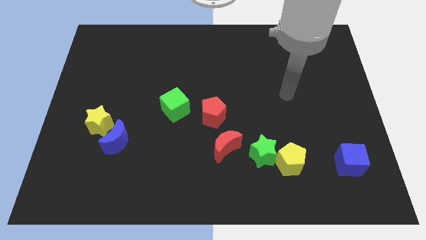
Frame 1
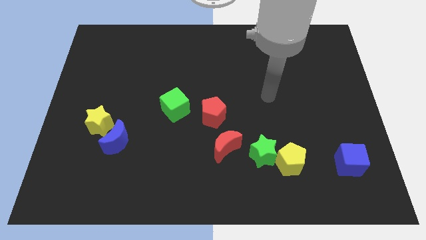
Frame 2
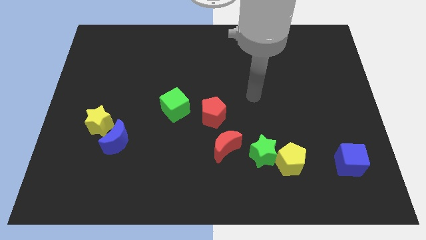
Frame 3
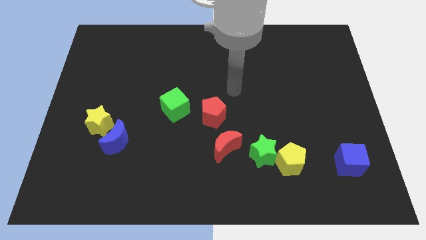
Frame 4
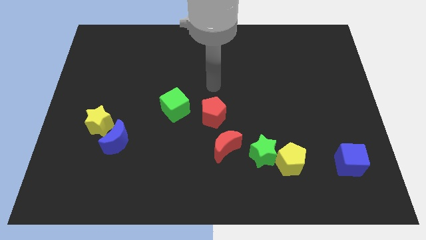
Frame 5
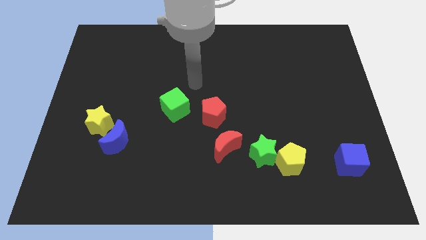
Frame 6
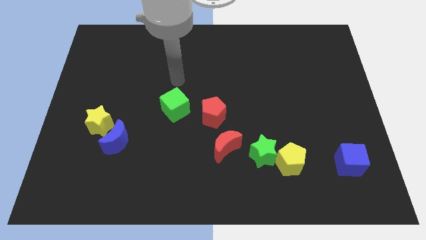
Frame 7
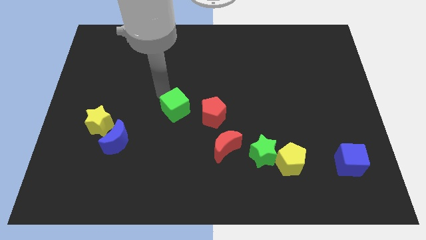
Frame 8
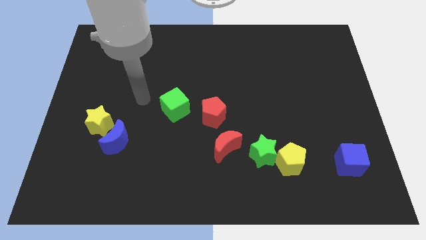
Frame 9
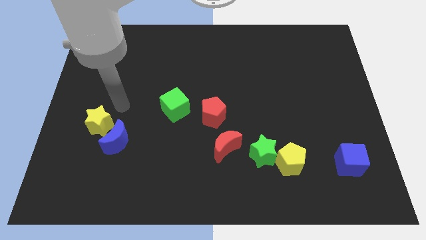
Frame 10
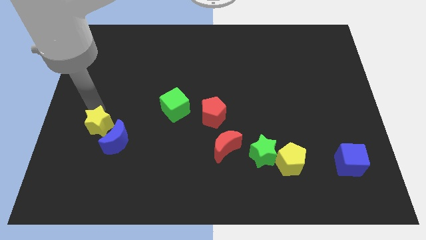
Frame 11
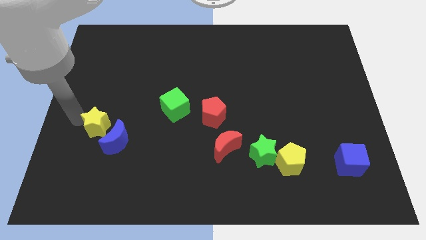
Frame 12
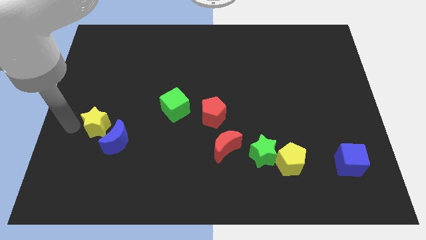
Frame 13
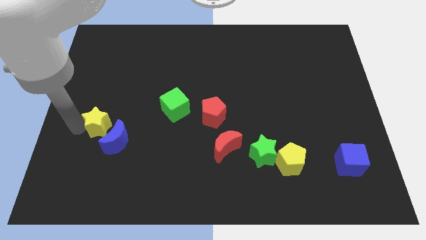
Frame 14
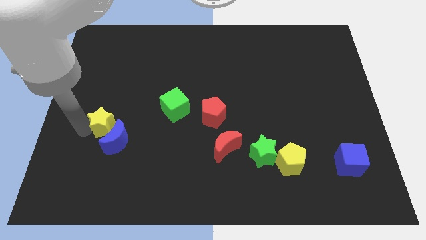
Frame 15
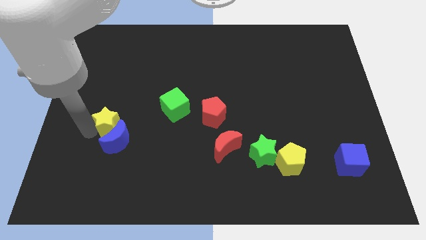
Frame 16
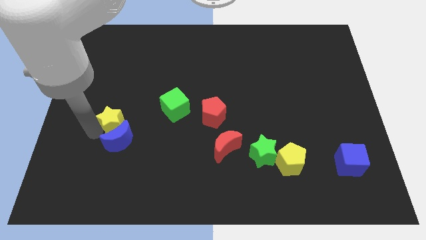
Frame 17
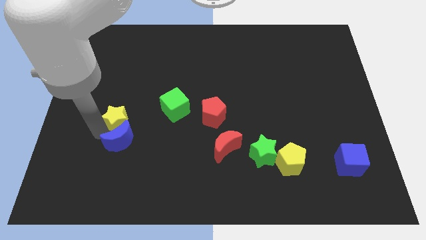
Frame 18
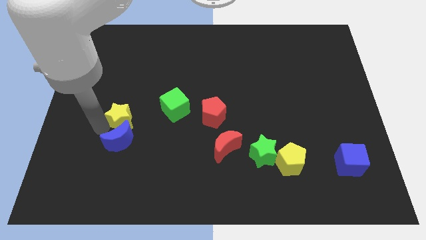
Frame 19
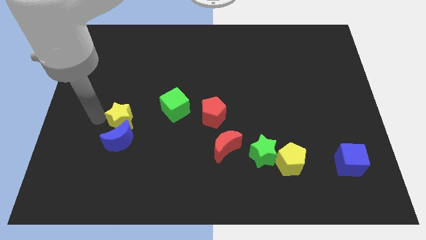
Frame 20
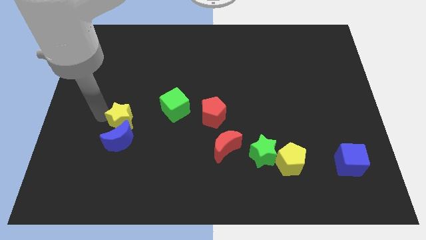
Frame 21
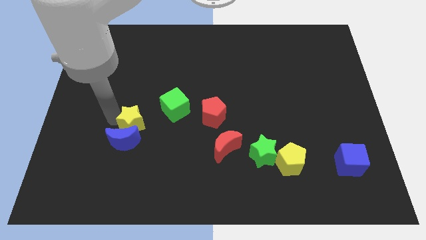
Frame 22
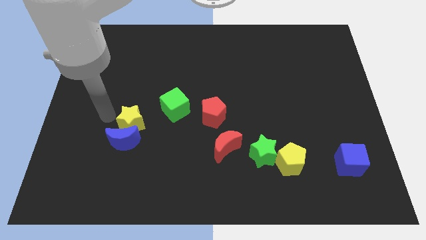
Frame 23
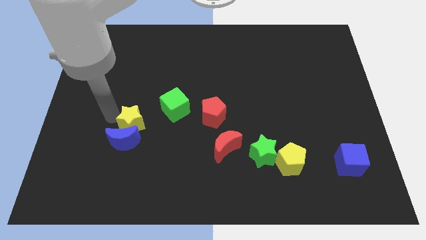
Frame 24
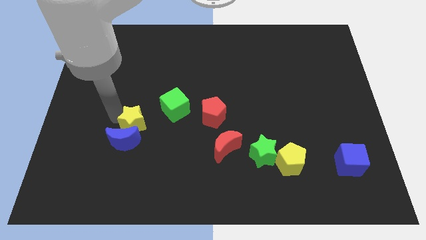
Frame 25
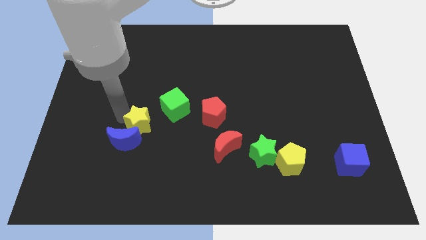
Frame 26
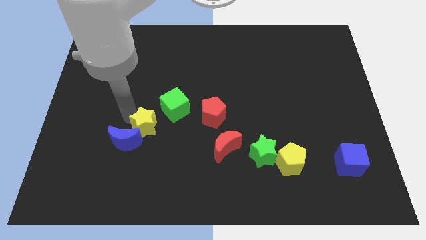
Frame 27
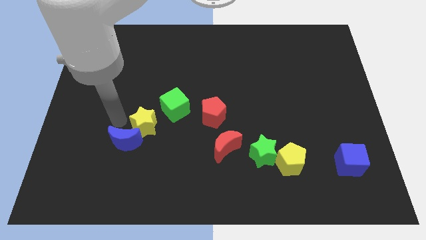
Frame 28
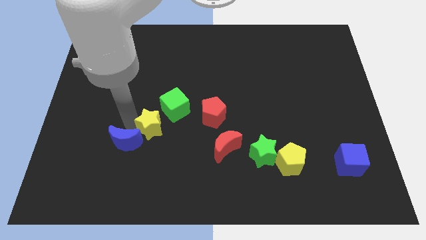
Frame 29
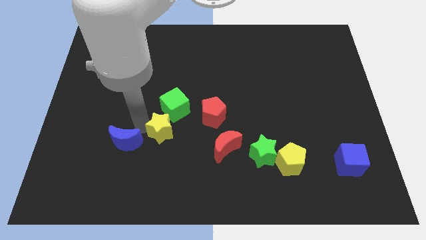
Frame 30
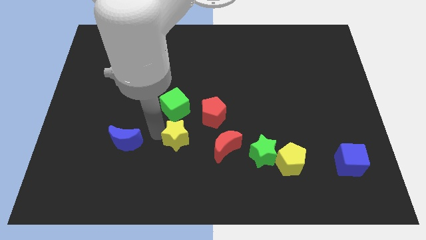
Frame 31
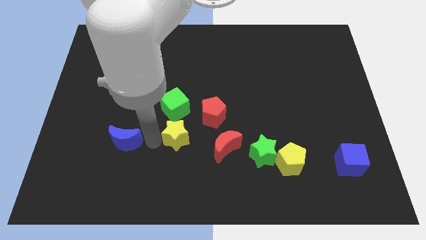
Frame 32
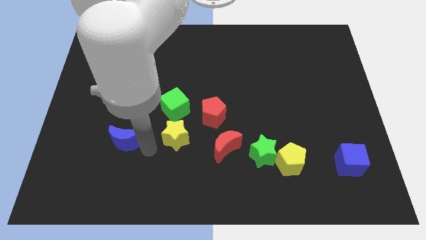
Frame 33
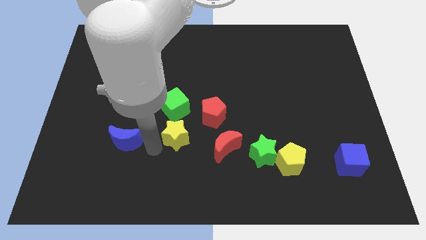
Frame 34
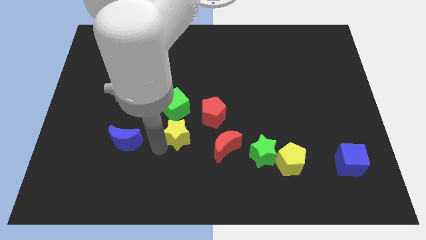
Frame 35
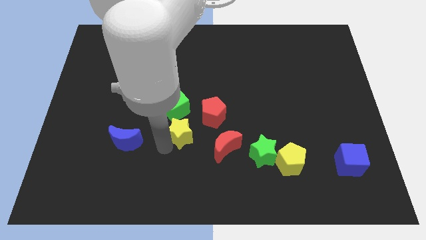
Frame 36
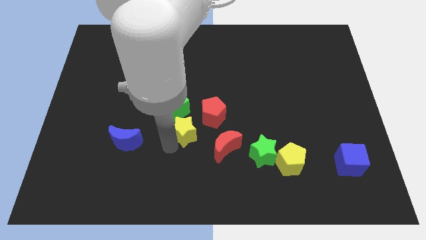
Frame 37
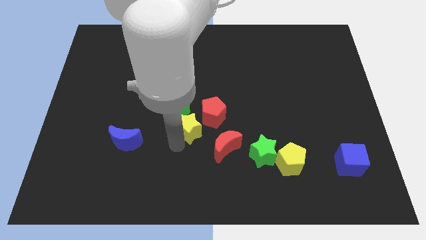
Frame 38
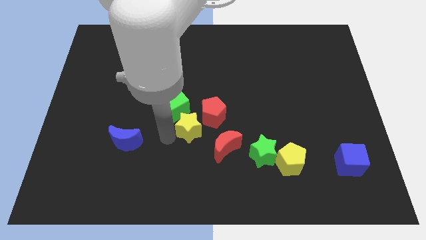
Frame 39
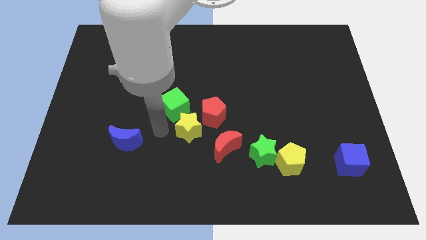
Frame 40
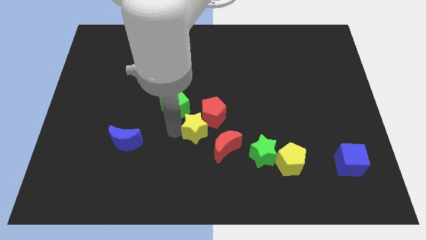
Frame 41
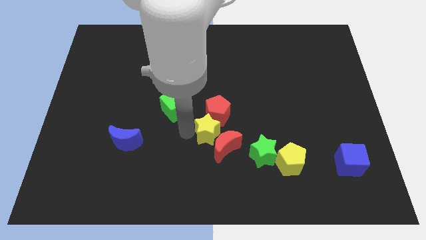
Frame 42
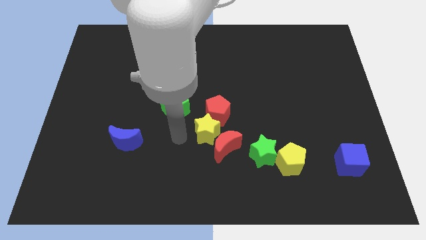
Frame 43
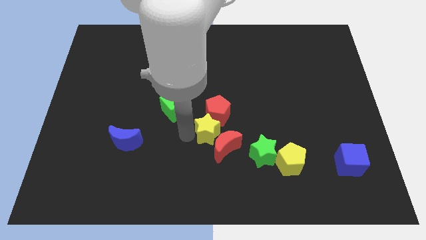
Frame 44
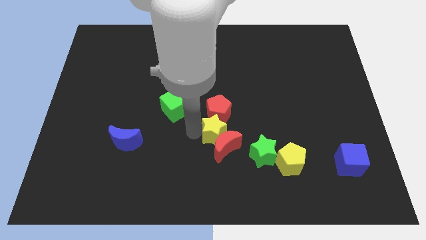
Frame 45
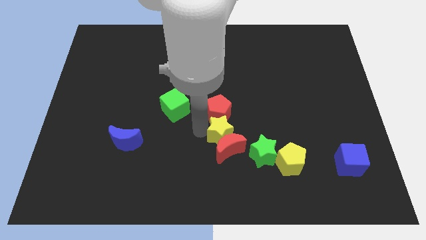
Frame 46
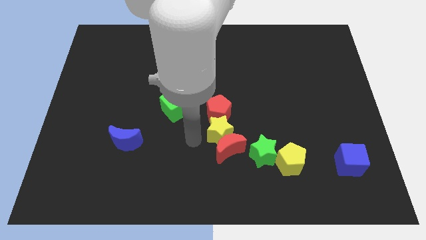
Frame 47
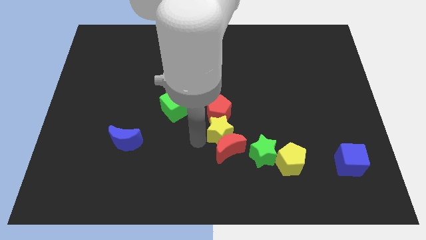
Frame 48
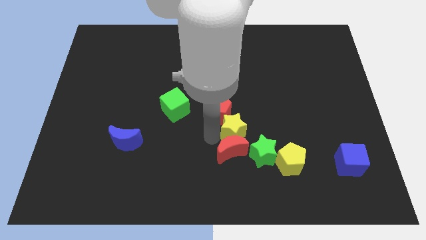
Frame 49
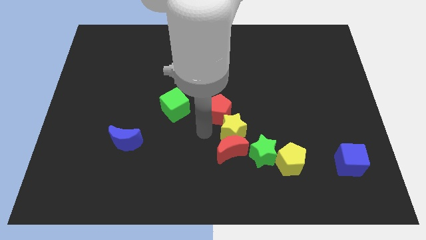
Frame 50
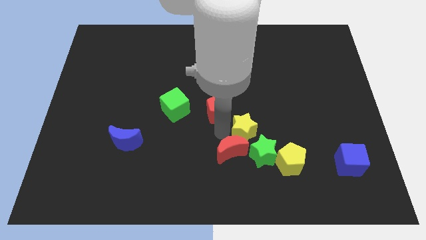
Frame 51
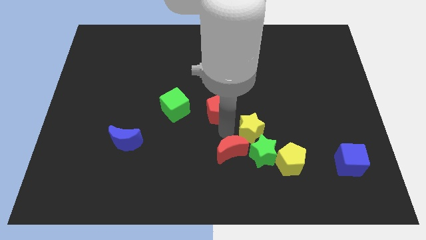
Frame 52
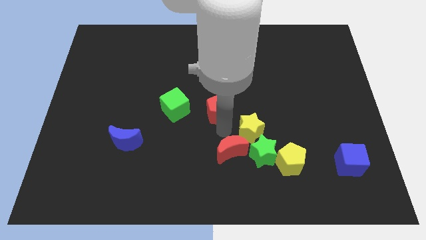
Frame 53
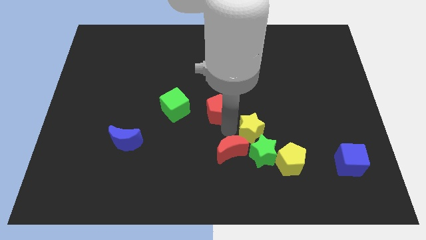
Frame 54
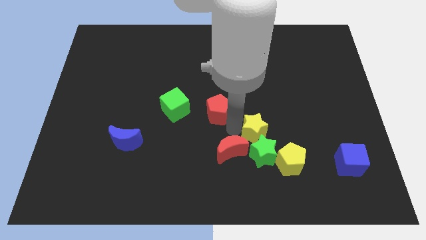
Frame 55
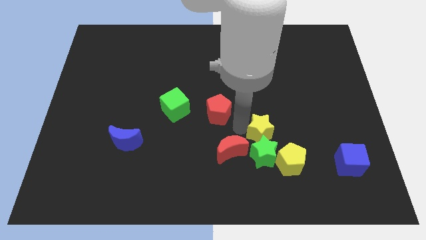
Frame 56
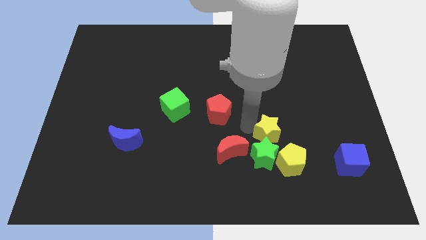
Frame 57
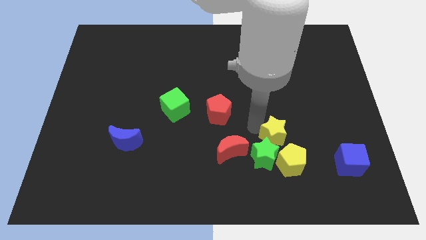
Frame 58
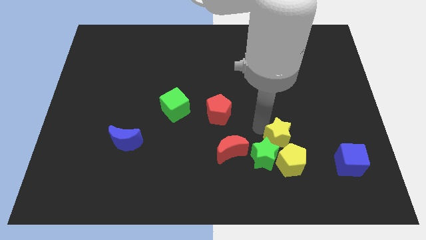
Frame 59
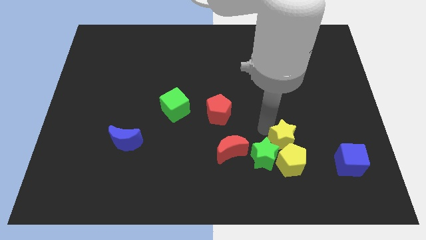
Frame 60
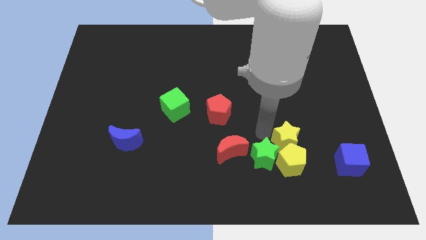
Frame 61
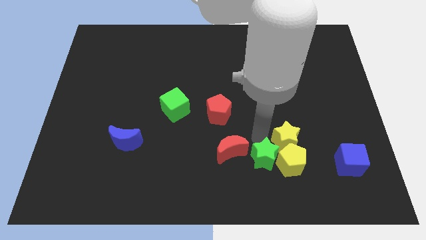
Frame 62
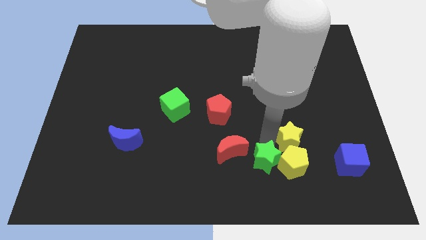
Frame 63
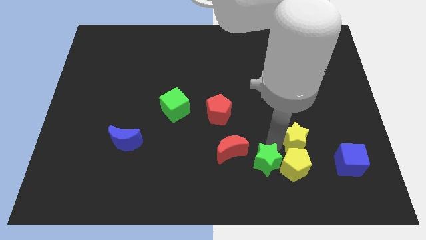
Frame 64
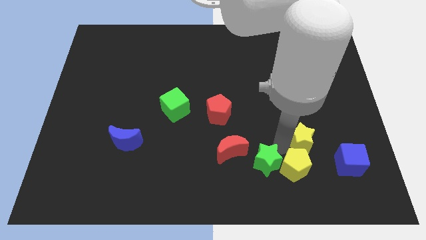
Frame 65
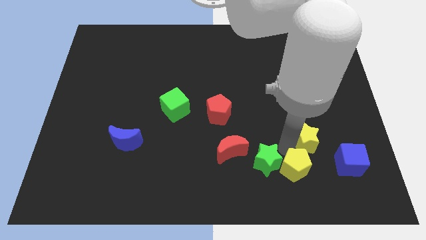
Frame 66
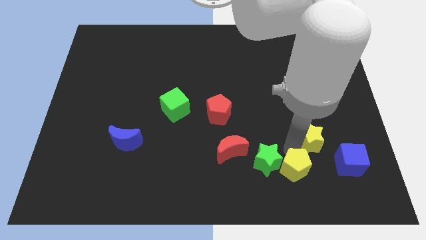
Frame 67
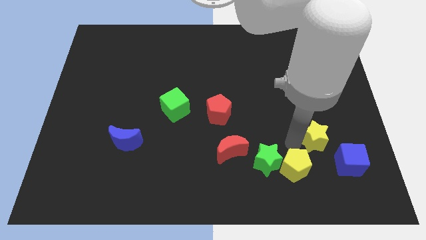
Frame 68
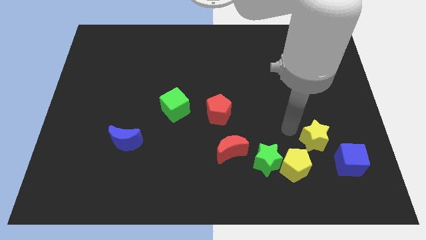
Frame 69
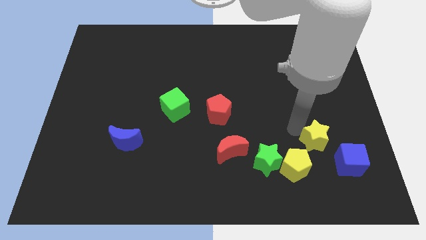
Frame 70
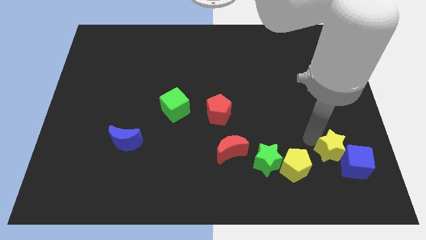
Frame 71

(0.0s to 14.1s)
slide the yellow star close to the blue cube
